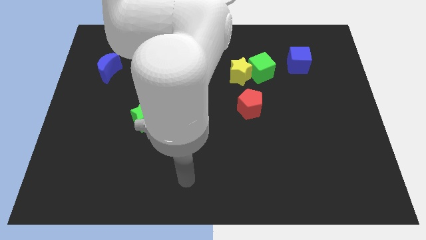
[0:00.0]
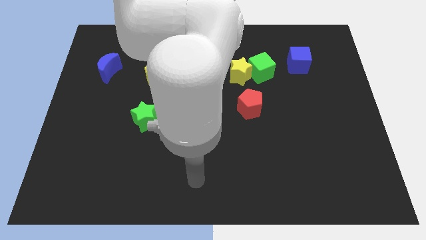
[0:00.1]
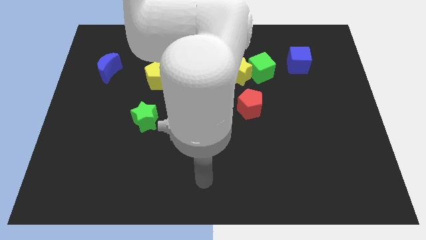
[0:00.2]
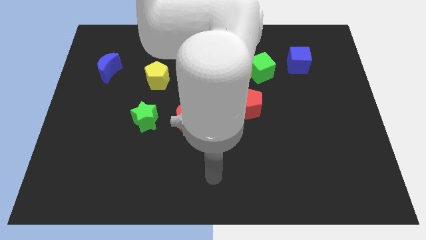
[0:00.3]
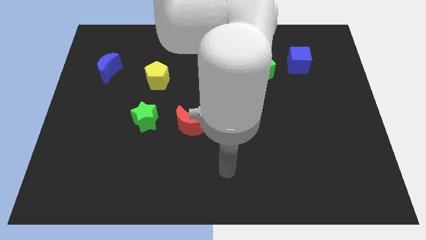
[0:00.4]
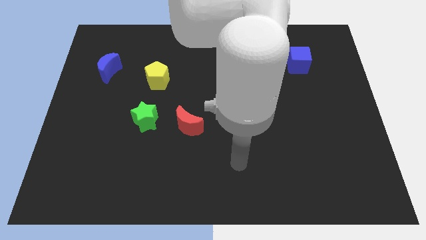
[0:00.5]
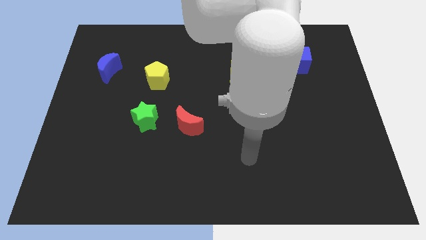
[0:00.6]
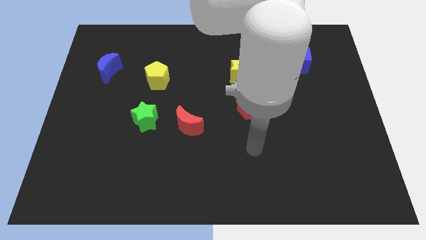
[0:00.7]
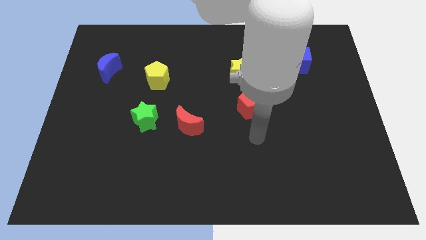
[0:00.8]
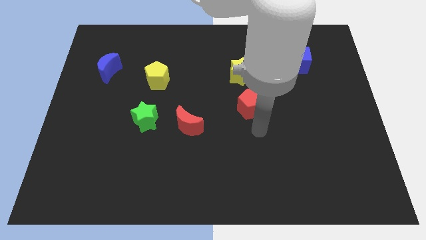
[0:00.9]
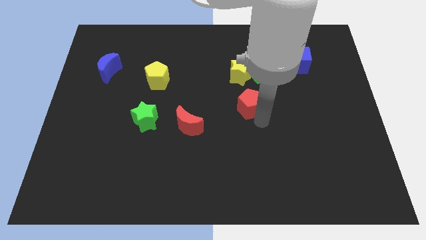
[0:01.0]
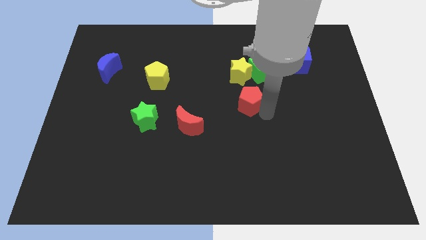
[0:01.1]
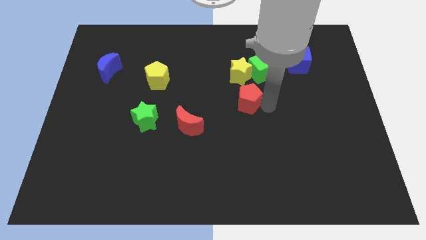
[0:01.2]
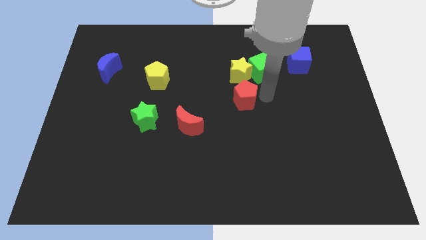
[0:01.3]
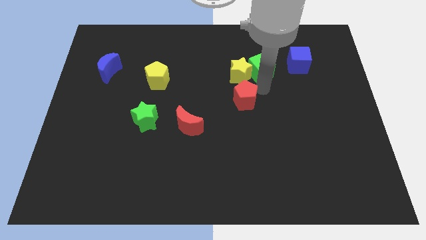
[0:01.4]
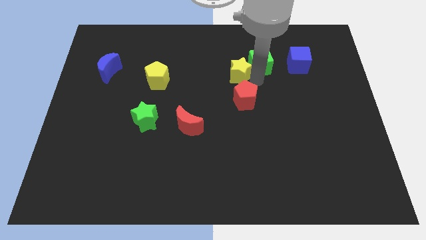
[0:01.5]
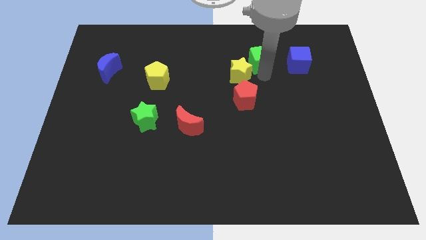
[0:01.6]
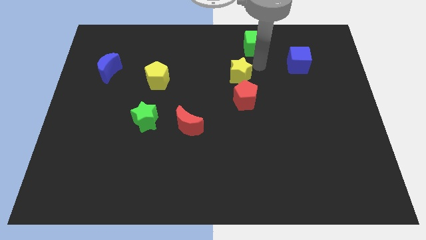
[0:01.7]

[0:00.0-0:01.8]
pull the yellow star apart from the green cube

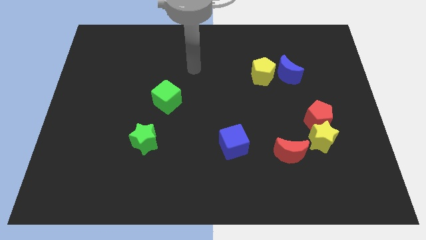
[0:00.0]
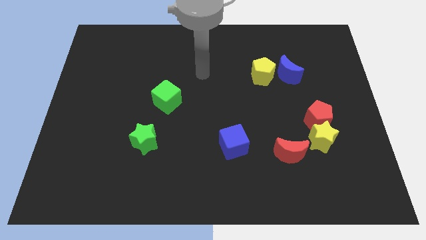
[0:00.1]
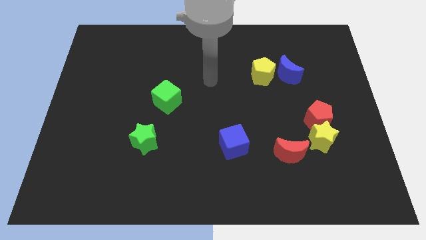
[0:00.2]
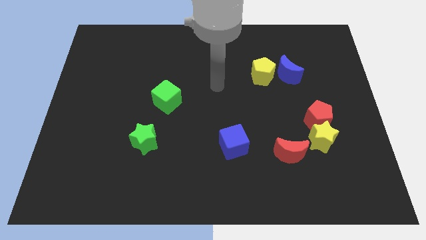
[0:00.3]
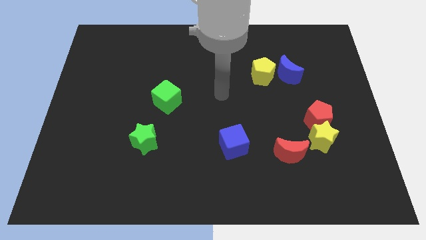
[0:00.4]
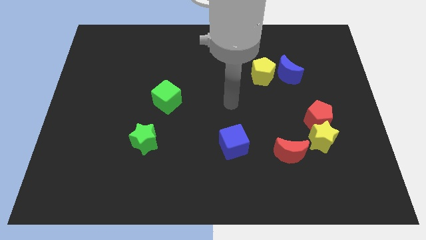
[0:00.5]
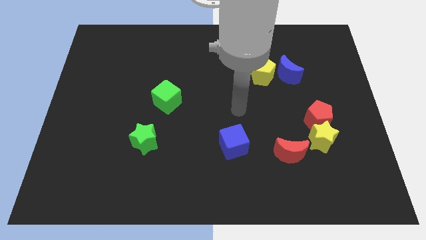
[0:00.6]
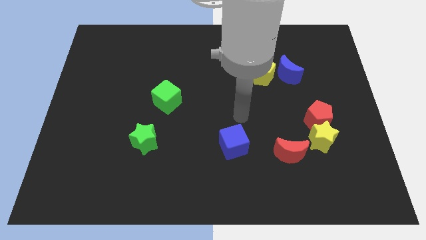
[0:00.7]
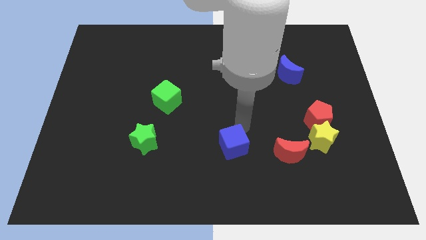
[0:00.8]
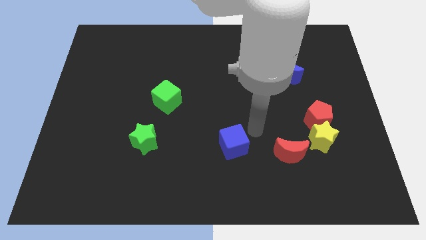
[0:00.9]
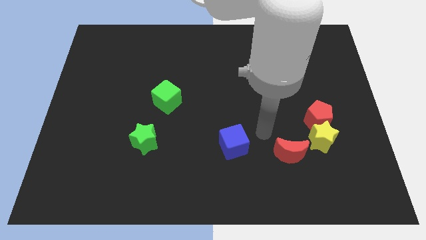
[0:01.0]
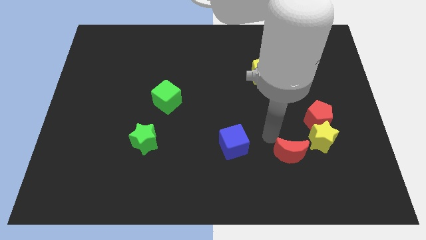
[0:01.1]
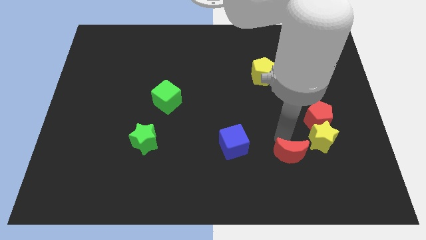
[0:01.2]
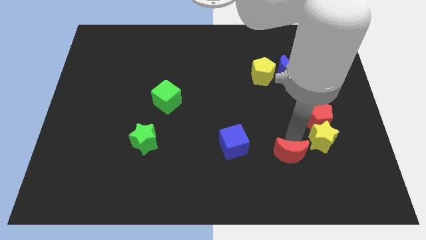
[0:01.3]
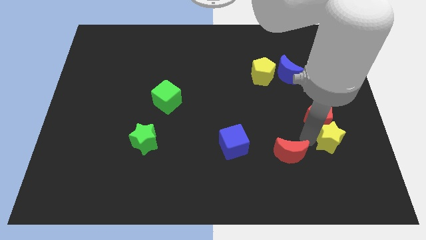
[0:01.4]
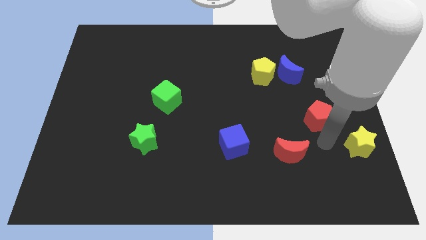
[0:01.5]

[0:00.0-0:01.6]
move the red pentagon away from the yellow star

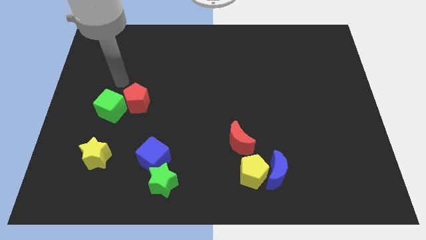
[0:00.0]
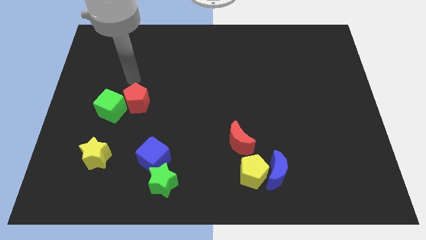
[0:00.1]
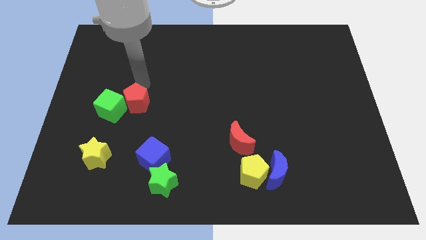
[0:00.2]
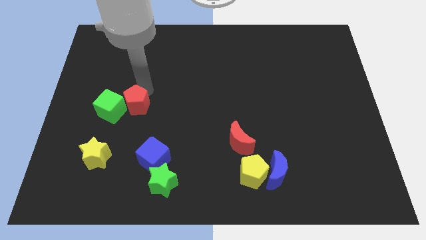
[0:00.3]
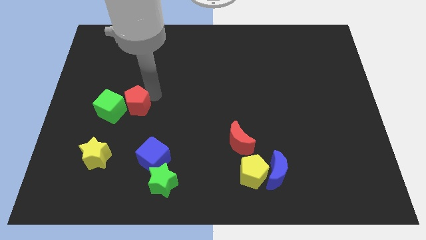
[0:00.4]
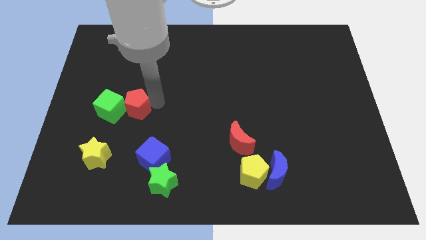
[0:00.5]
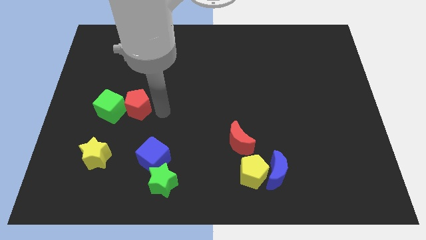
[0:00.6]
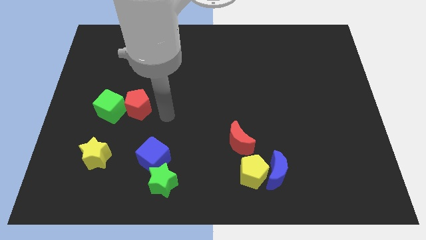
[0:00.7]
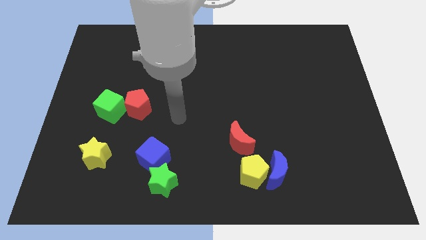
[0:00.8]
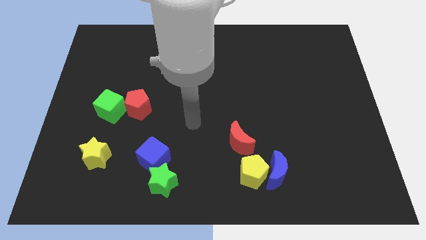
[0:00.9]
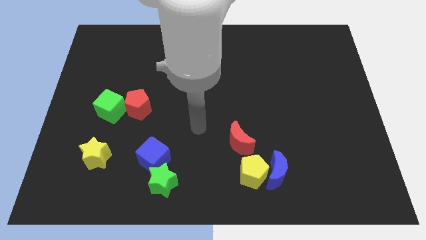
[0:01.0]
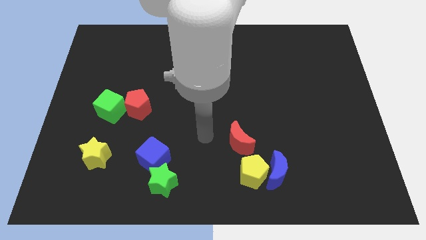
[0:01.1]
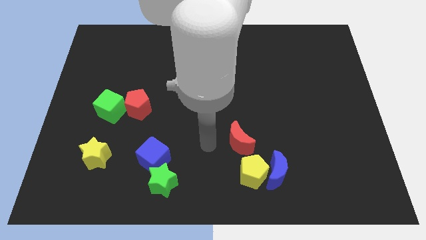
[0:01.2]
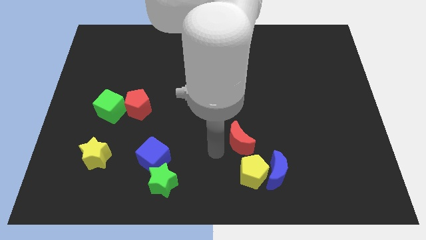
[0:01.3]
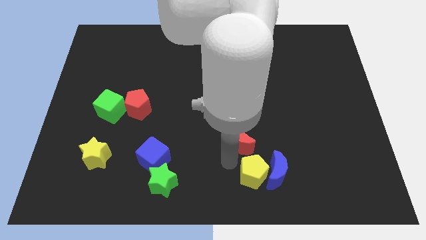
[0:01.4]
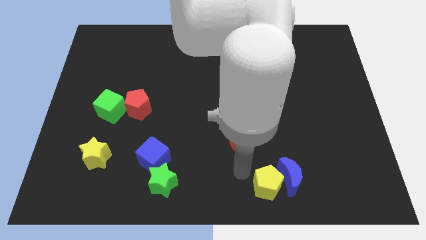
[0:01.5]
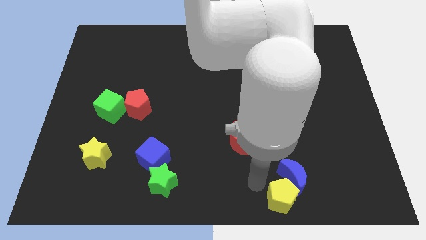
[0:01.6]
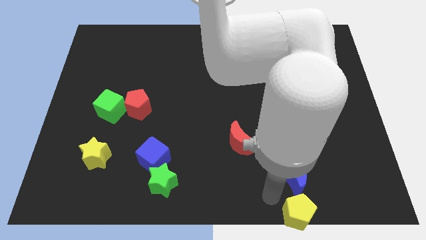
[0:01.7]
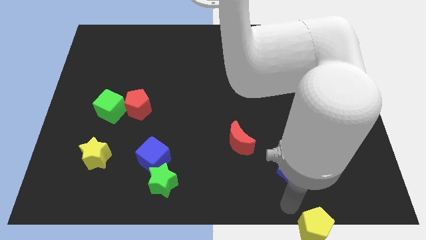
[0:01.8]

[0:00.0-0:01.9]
separate the blue moon from the yellow pentagon

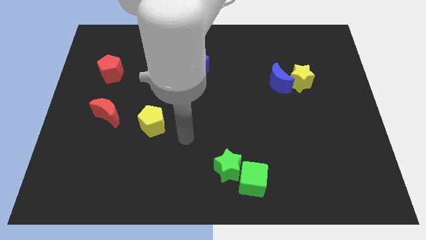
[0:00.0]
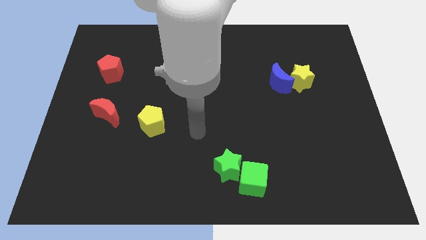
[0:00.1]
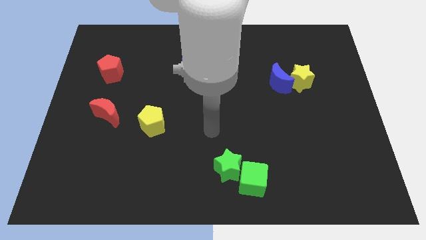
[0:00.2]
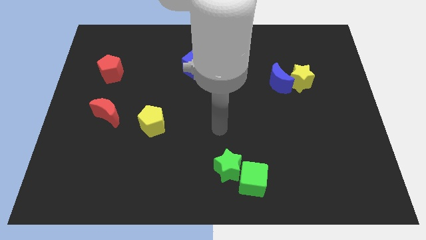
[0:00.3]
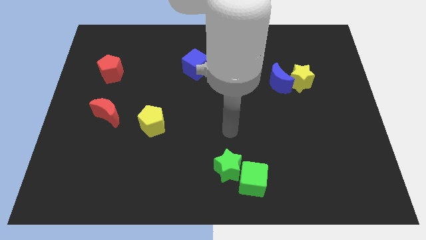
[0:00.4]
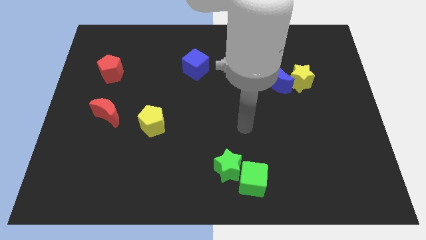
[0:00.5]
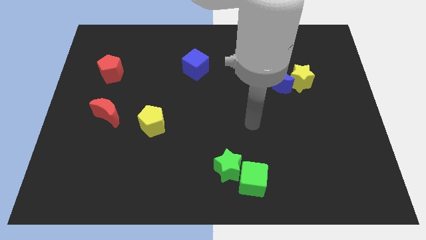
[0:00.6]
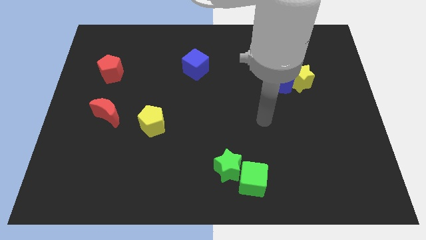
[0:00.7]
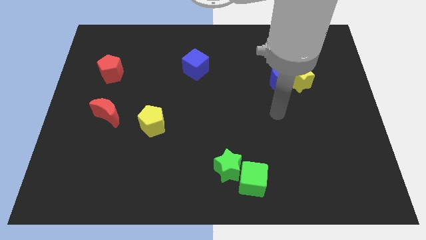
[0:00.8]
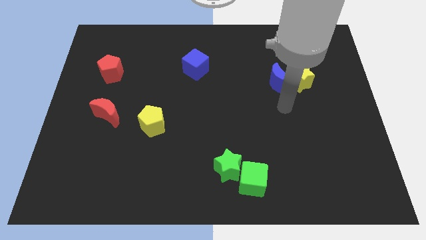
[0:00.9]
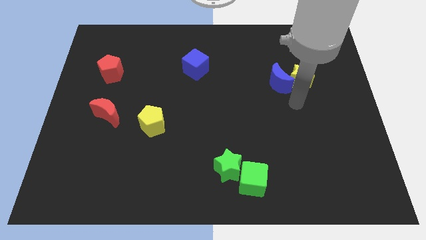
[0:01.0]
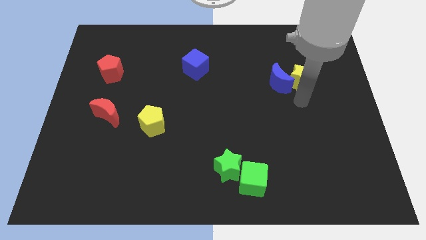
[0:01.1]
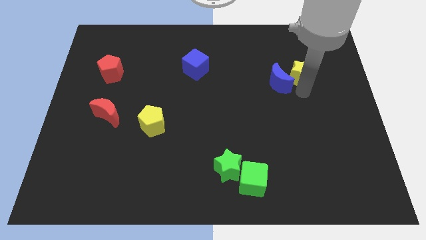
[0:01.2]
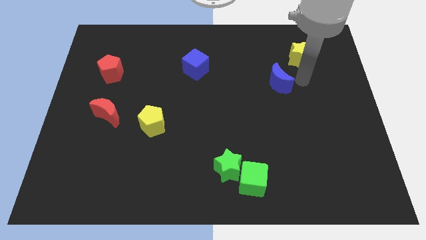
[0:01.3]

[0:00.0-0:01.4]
move the blue moon away from the yellow star

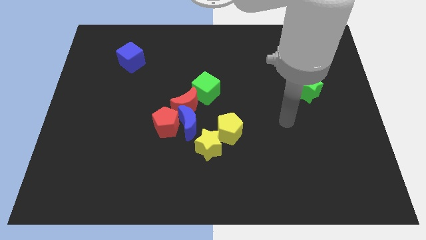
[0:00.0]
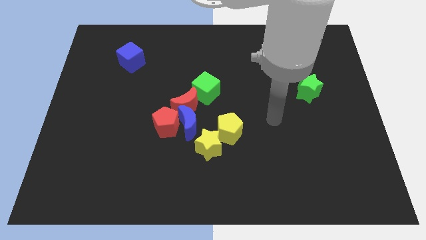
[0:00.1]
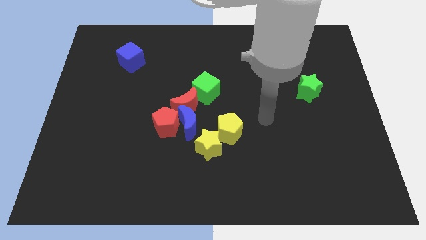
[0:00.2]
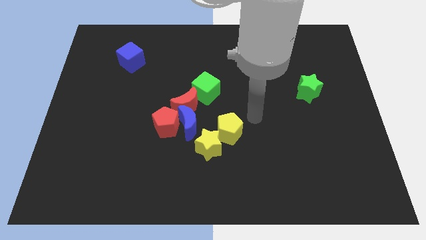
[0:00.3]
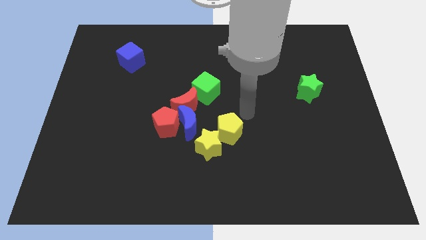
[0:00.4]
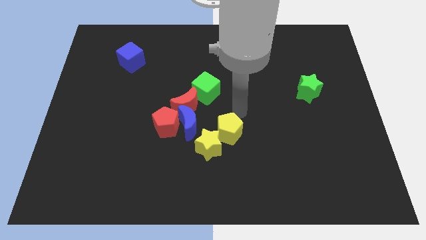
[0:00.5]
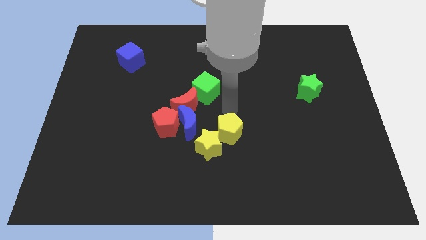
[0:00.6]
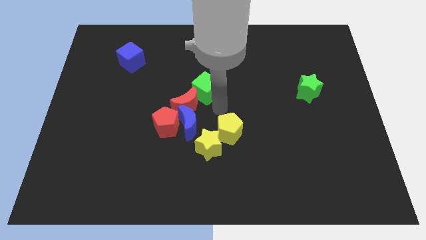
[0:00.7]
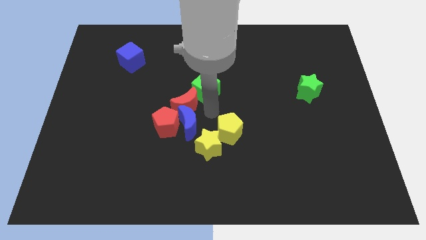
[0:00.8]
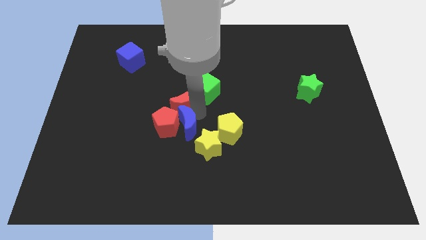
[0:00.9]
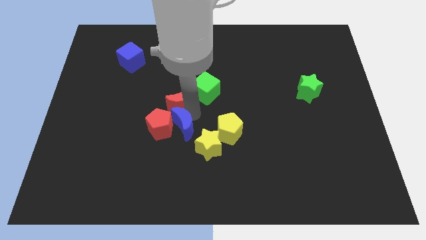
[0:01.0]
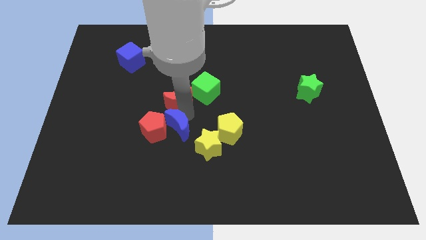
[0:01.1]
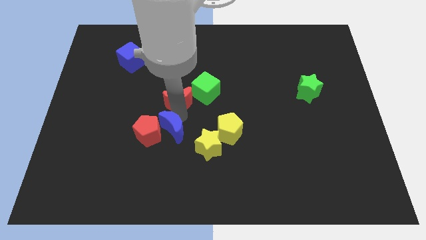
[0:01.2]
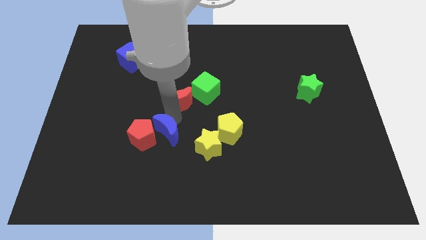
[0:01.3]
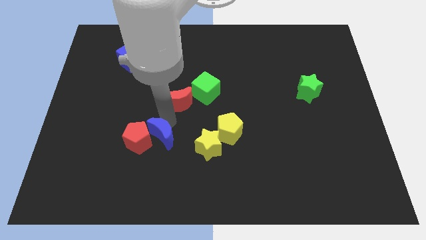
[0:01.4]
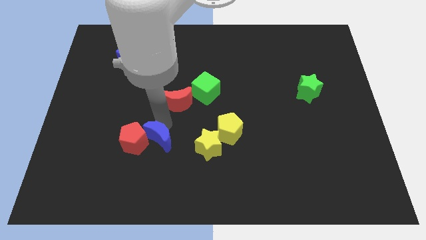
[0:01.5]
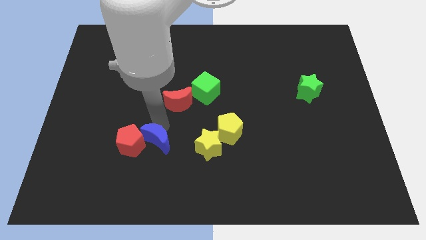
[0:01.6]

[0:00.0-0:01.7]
separate the red pentagon from the blue moon and red moon

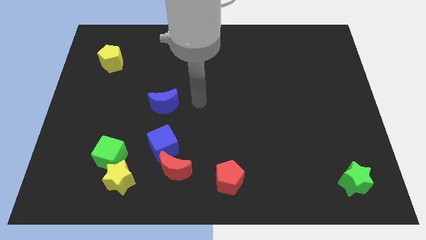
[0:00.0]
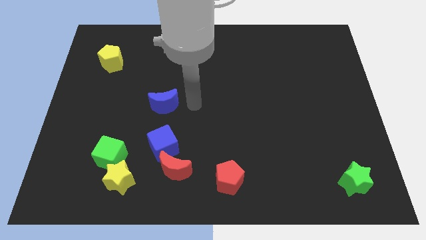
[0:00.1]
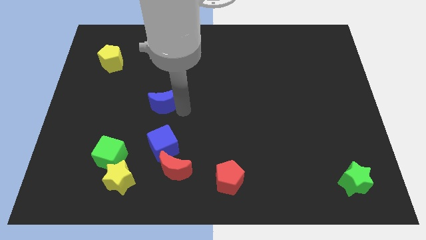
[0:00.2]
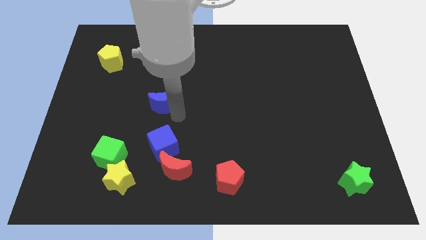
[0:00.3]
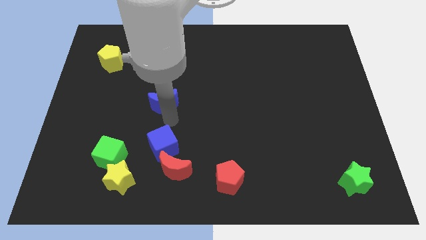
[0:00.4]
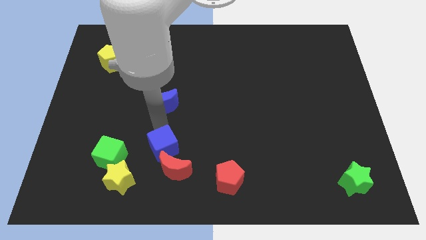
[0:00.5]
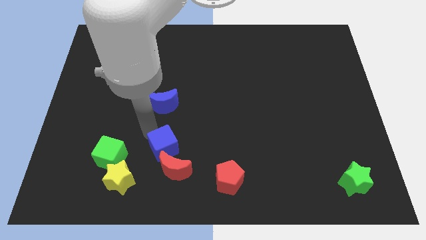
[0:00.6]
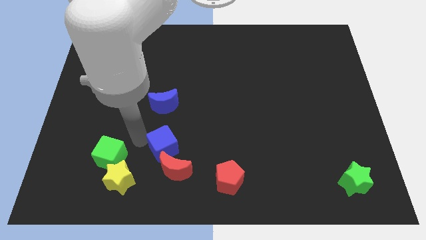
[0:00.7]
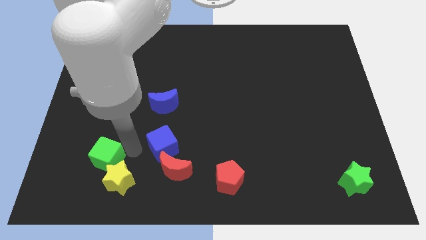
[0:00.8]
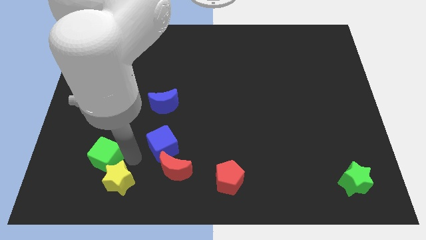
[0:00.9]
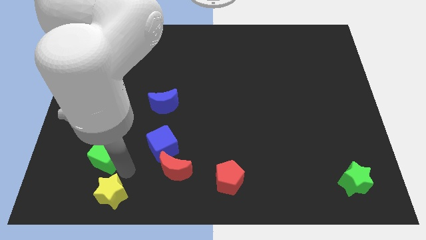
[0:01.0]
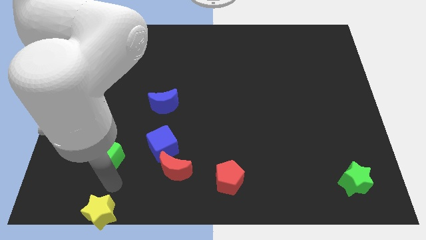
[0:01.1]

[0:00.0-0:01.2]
pull the green cube apart from the yellow star
